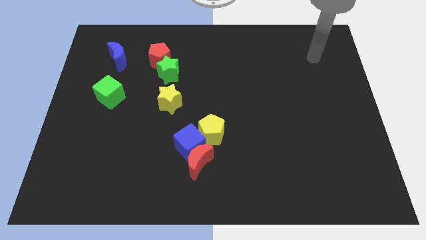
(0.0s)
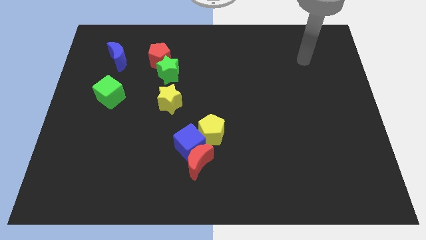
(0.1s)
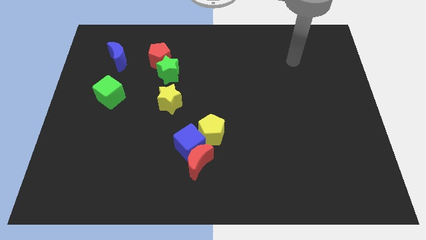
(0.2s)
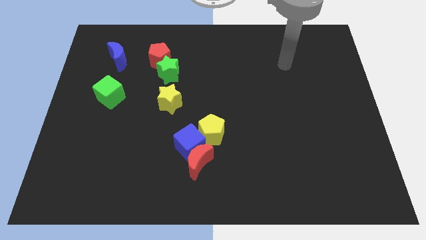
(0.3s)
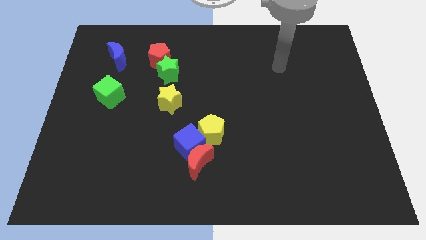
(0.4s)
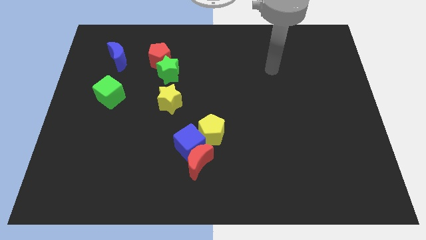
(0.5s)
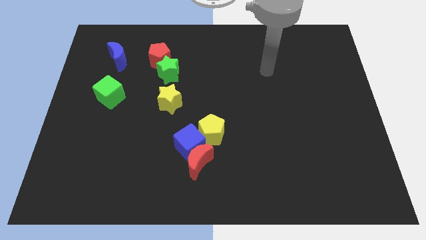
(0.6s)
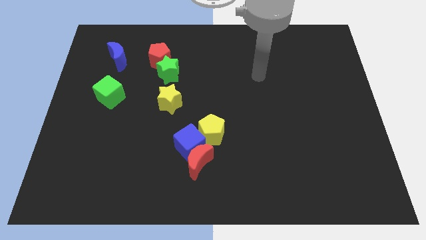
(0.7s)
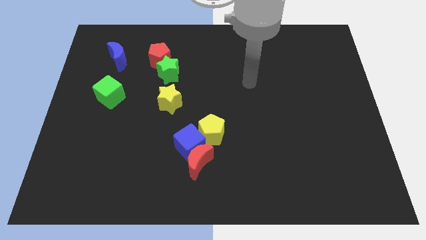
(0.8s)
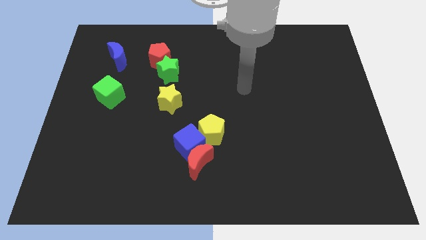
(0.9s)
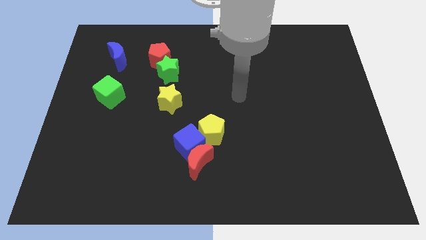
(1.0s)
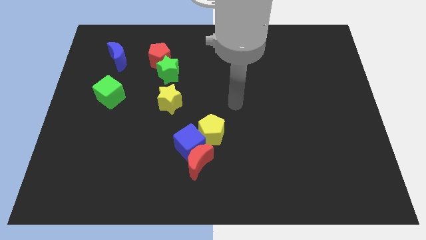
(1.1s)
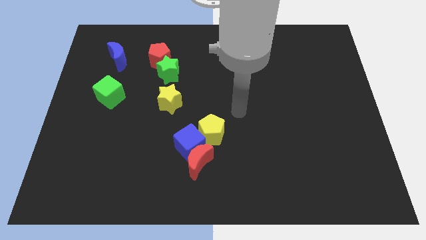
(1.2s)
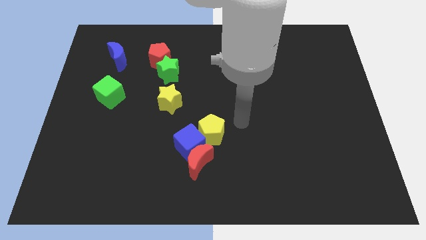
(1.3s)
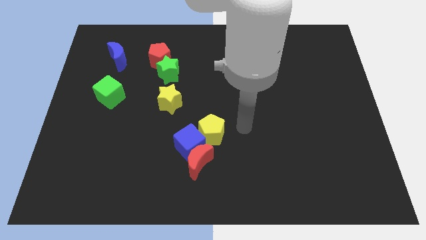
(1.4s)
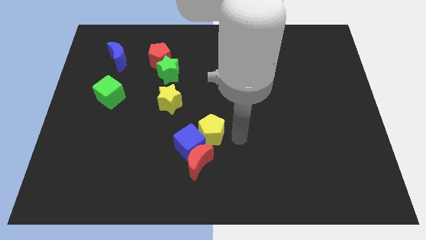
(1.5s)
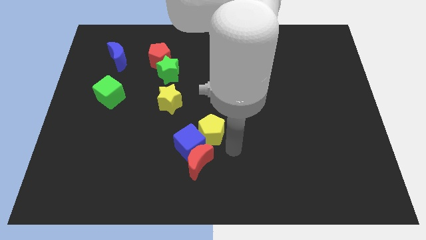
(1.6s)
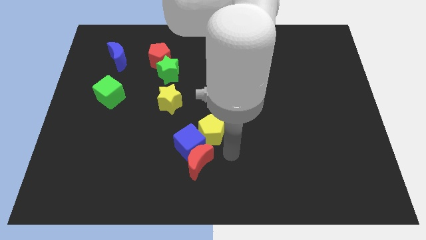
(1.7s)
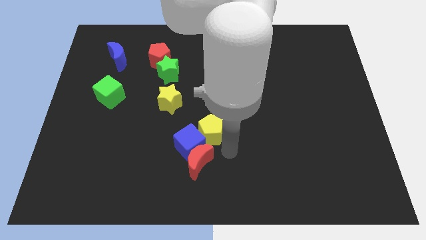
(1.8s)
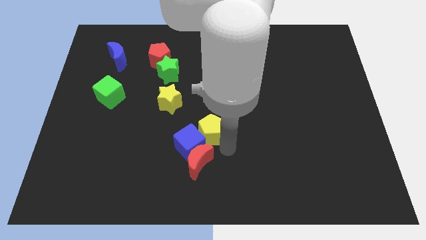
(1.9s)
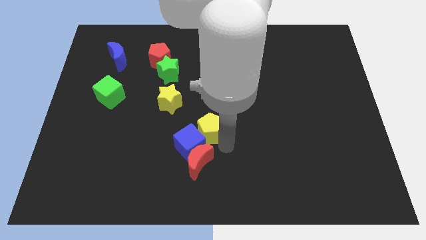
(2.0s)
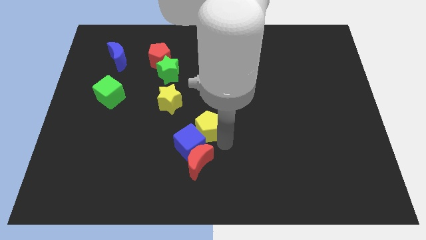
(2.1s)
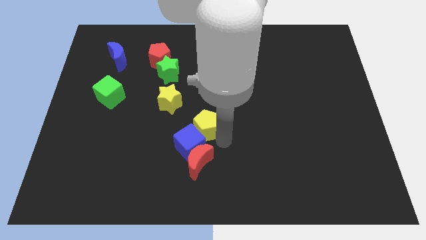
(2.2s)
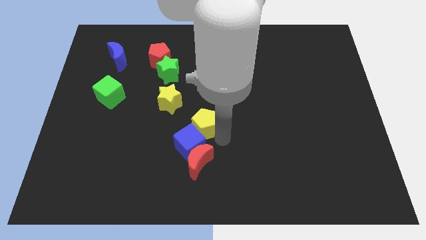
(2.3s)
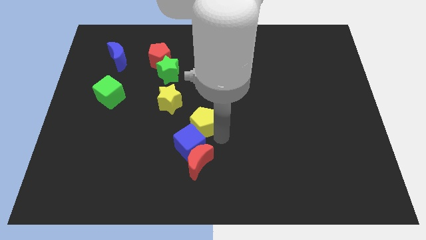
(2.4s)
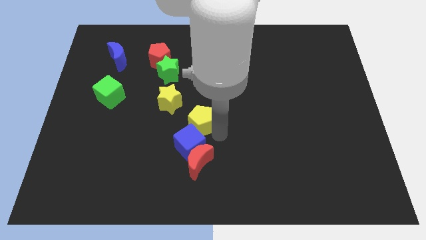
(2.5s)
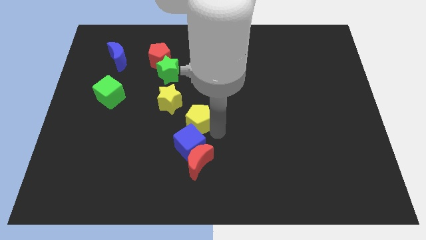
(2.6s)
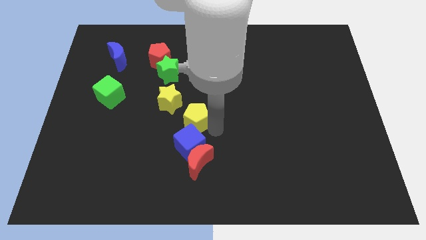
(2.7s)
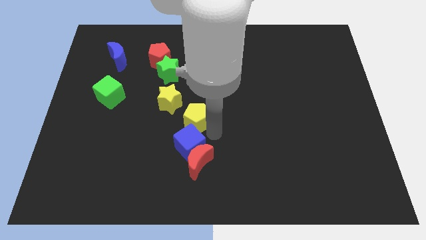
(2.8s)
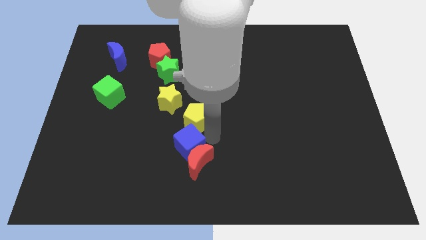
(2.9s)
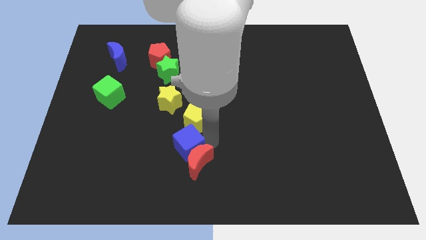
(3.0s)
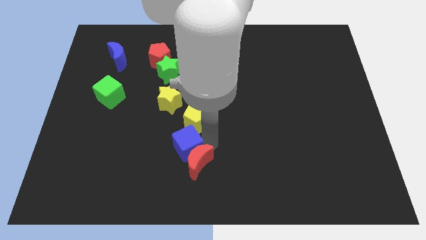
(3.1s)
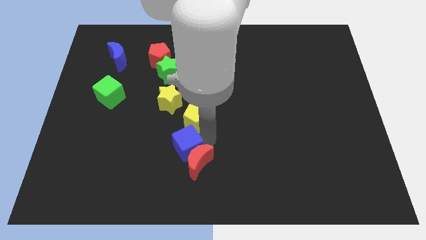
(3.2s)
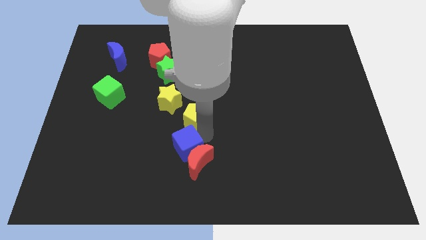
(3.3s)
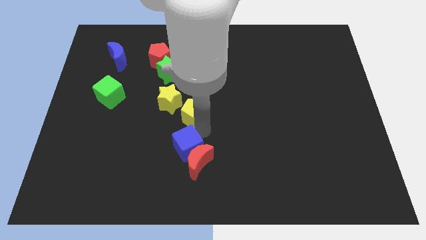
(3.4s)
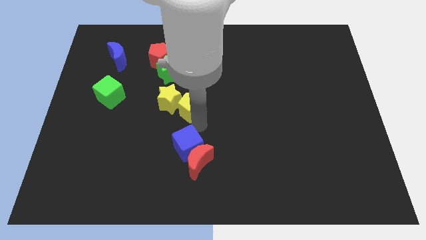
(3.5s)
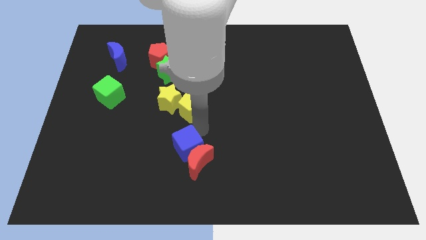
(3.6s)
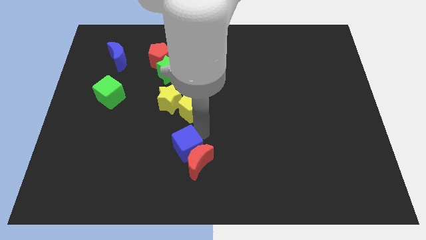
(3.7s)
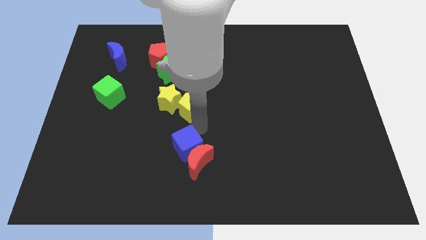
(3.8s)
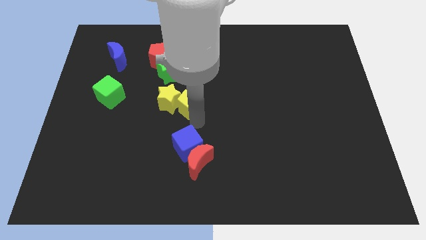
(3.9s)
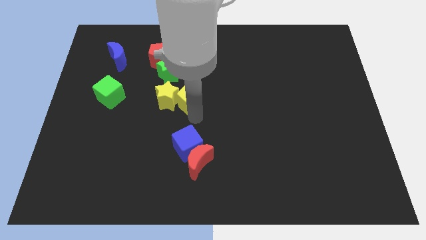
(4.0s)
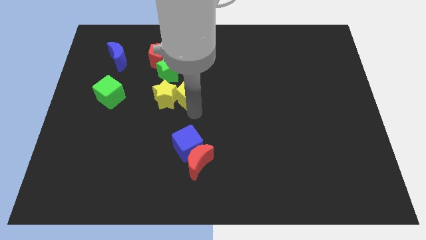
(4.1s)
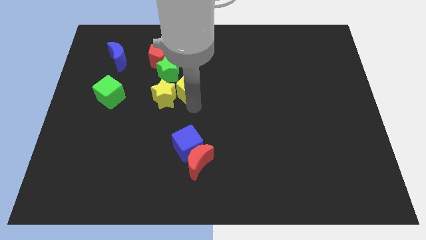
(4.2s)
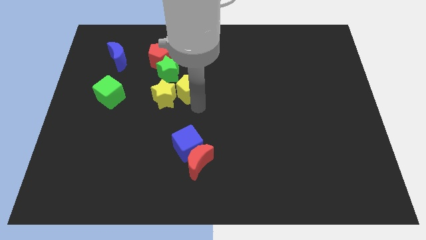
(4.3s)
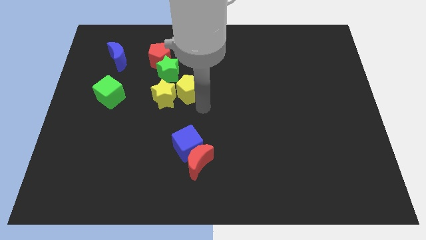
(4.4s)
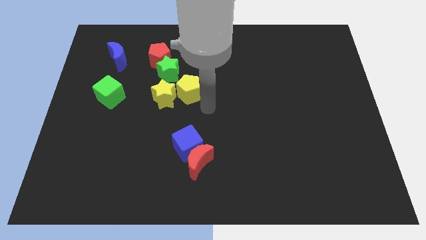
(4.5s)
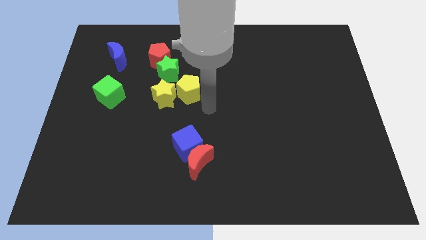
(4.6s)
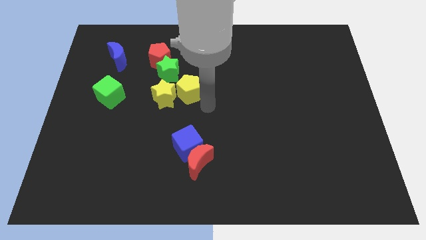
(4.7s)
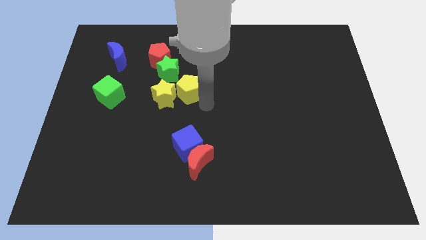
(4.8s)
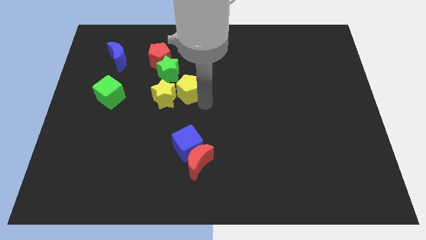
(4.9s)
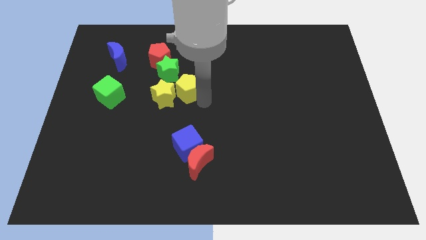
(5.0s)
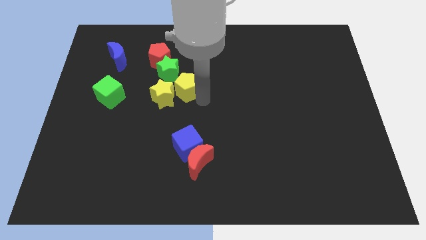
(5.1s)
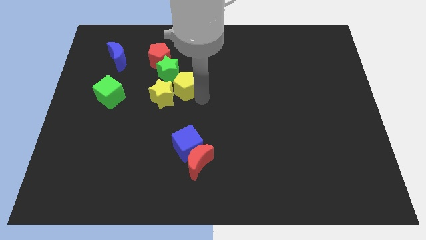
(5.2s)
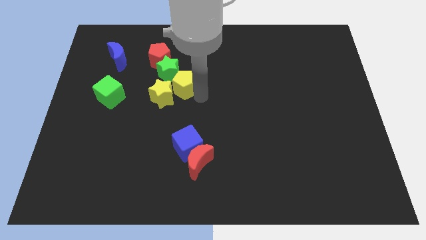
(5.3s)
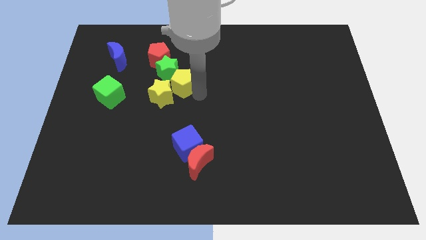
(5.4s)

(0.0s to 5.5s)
move the yellow pentagon next to the green star

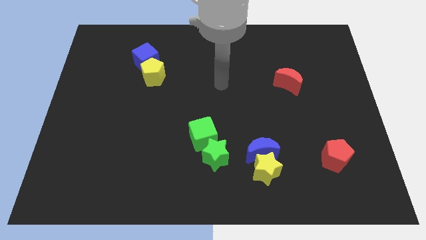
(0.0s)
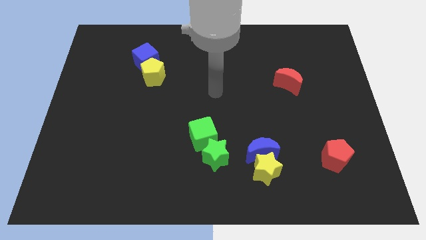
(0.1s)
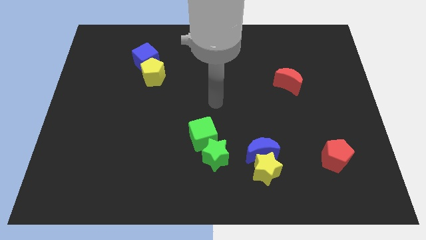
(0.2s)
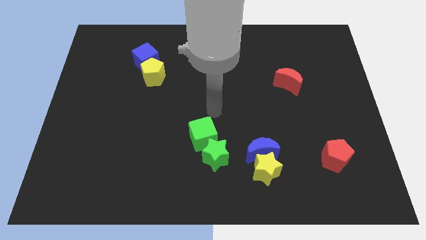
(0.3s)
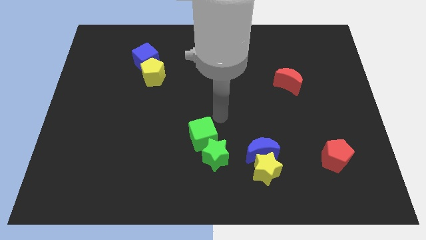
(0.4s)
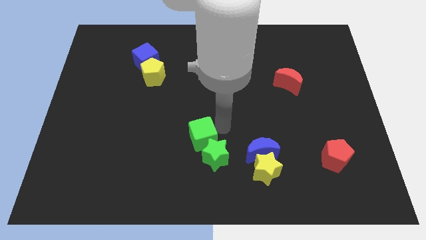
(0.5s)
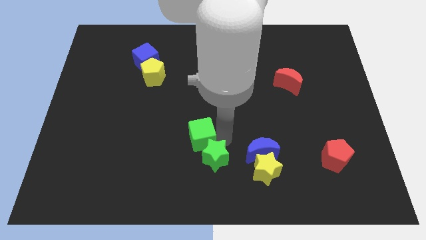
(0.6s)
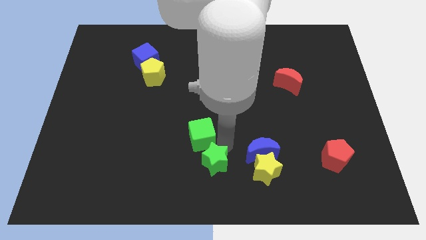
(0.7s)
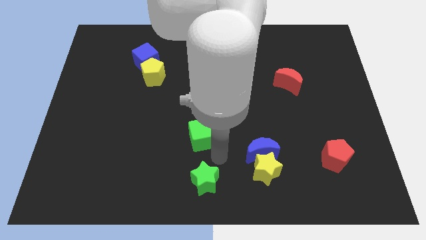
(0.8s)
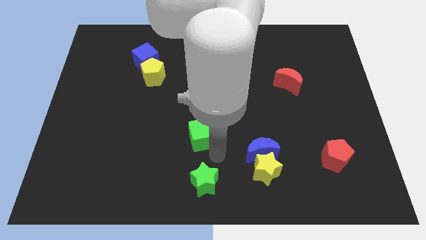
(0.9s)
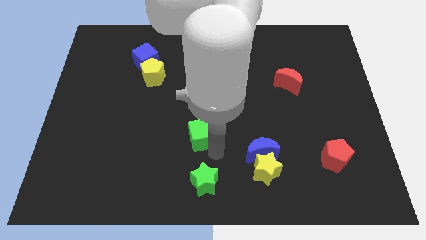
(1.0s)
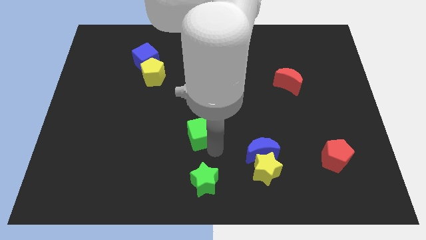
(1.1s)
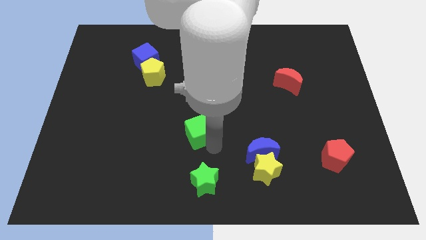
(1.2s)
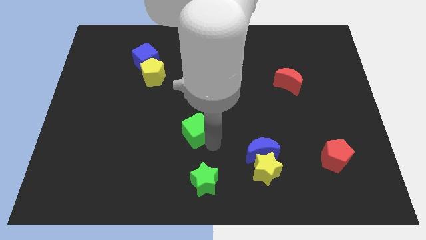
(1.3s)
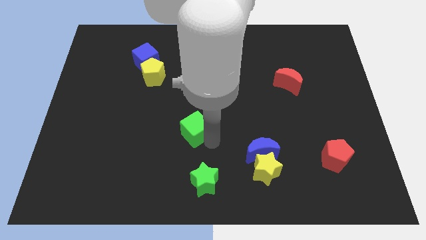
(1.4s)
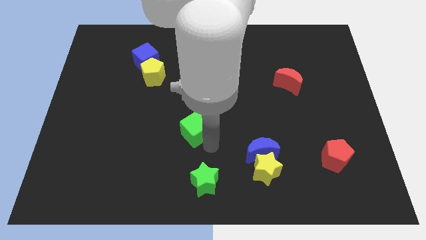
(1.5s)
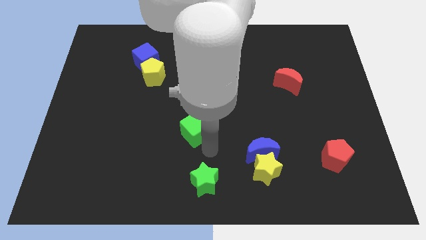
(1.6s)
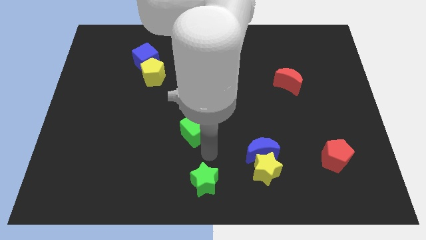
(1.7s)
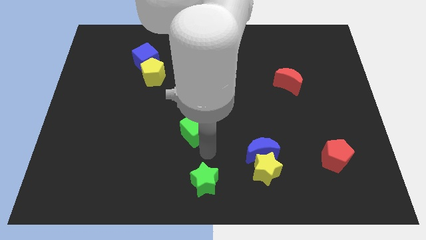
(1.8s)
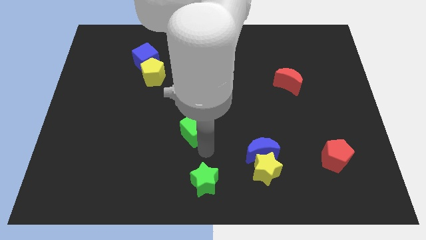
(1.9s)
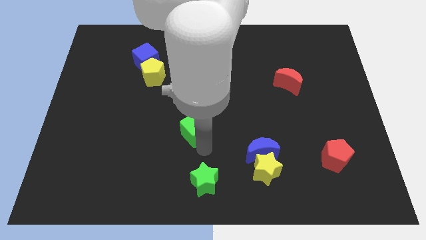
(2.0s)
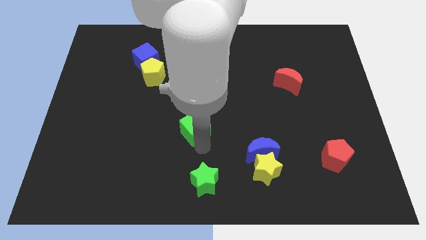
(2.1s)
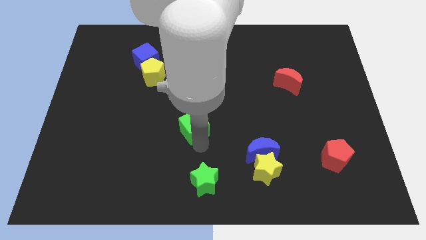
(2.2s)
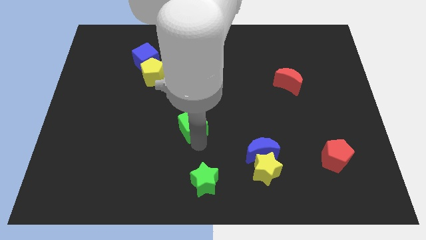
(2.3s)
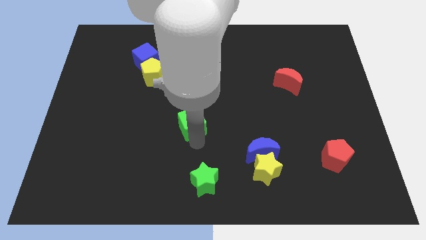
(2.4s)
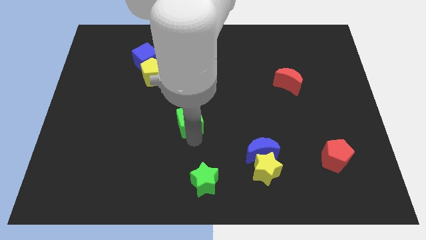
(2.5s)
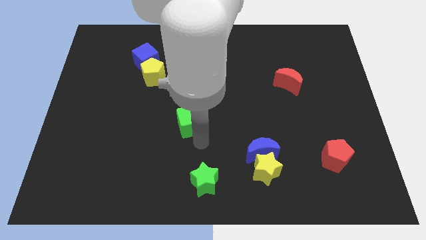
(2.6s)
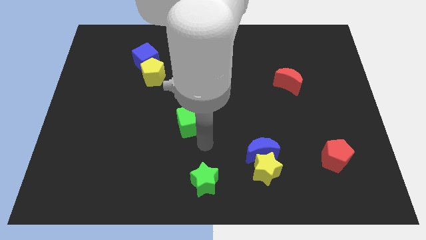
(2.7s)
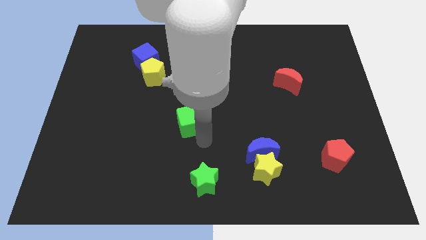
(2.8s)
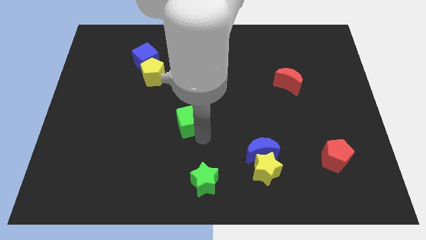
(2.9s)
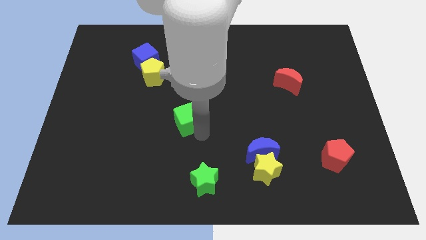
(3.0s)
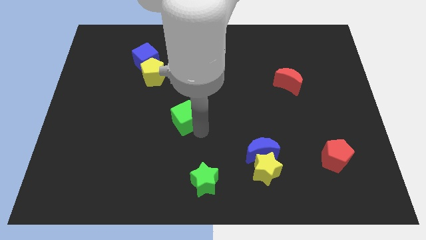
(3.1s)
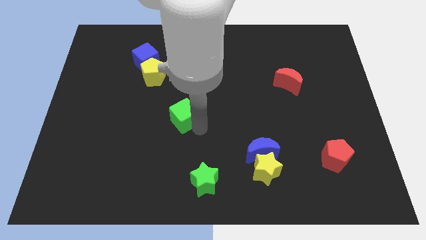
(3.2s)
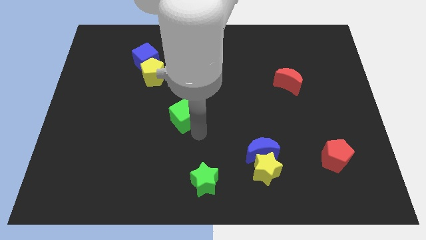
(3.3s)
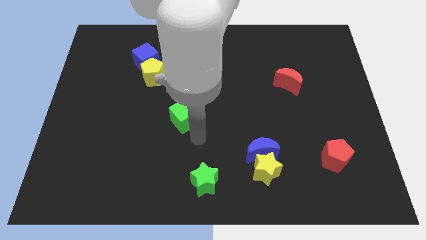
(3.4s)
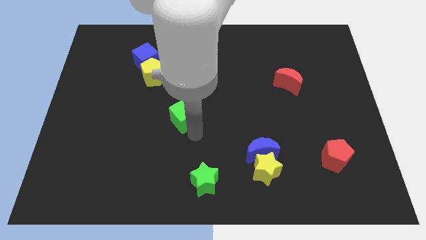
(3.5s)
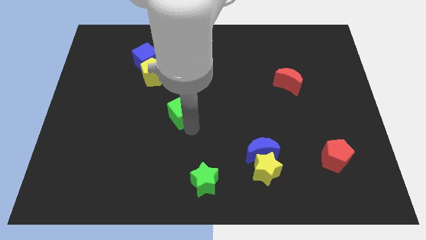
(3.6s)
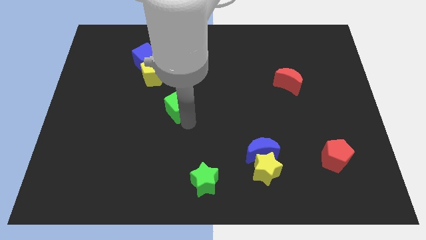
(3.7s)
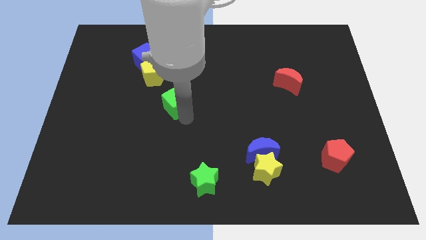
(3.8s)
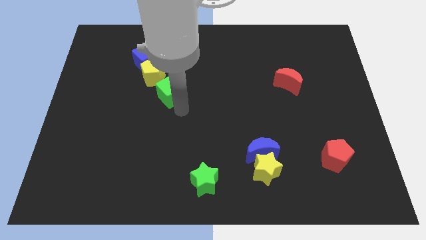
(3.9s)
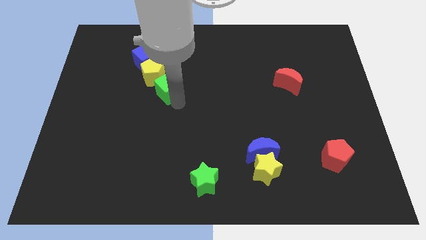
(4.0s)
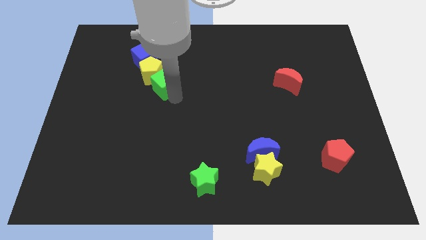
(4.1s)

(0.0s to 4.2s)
push the green cube towards the yellow pentagon
